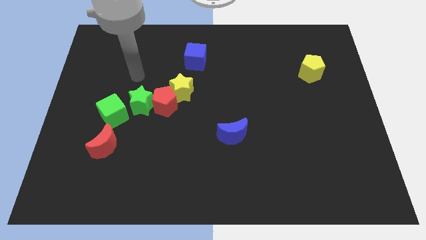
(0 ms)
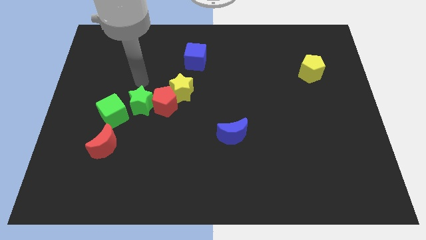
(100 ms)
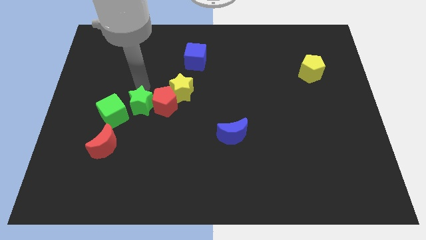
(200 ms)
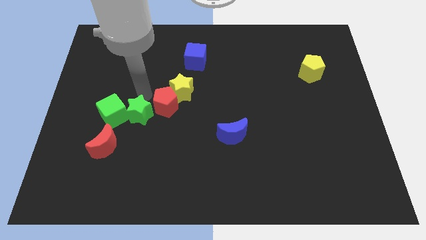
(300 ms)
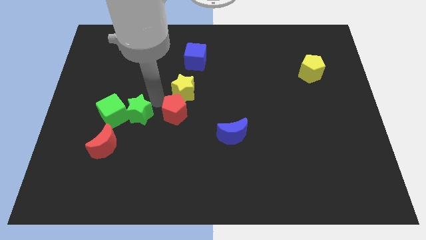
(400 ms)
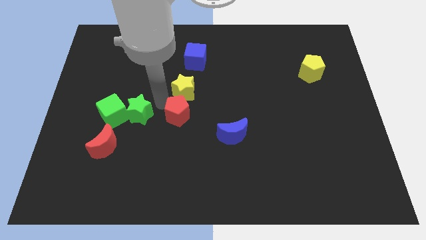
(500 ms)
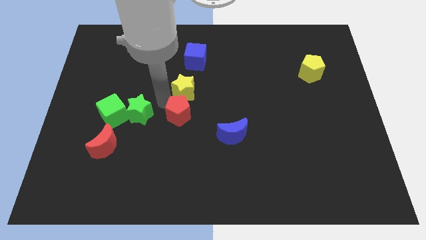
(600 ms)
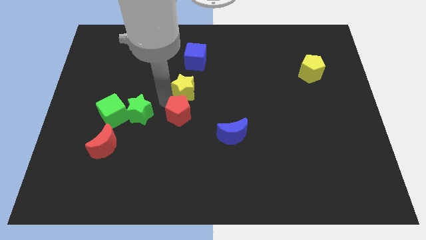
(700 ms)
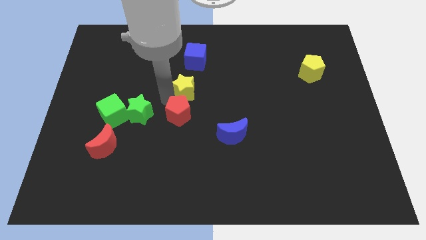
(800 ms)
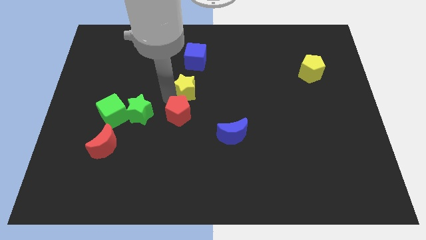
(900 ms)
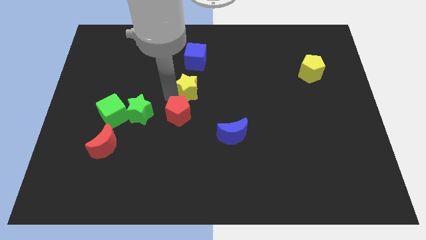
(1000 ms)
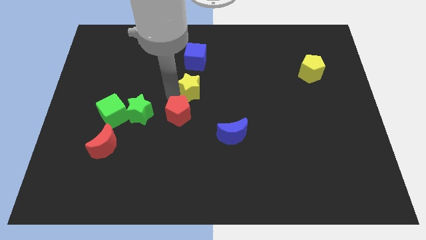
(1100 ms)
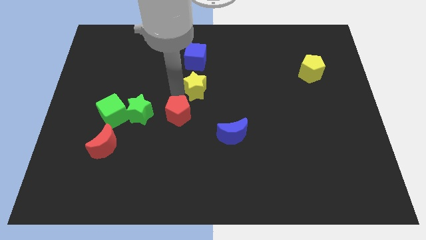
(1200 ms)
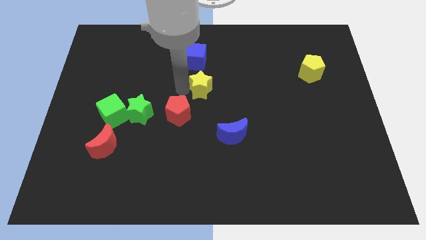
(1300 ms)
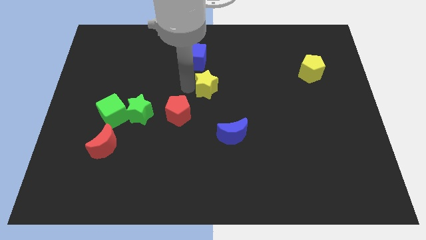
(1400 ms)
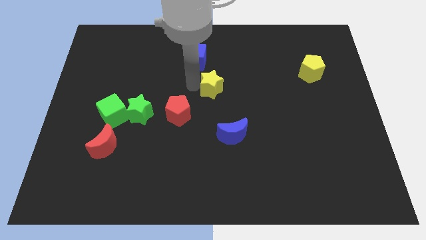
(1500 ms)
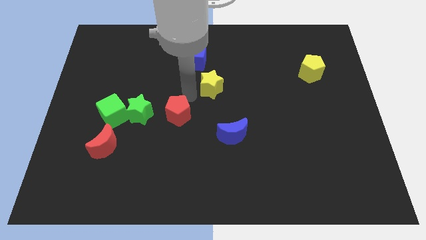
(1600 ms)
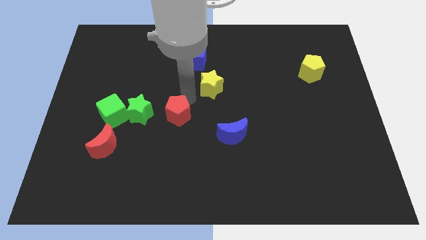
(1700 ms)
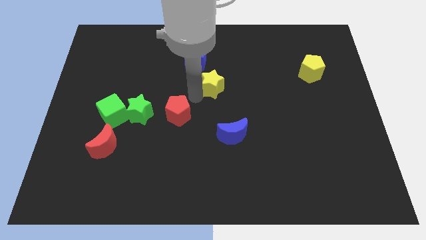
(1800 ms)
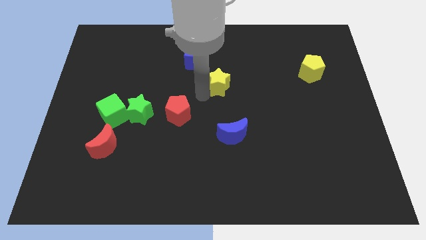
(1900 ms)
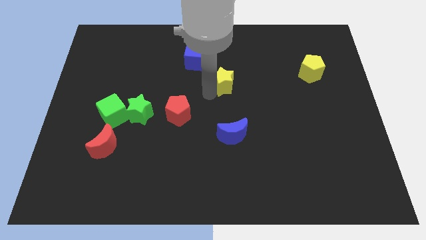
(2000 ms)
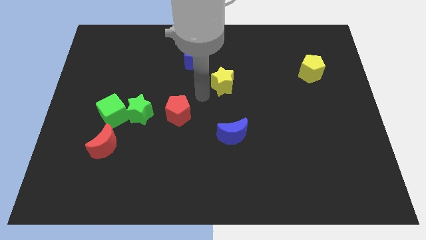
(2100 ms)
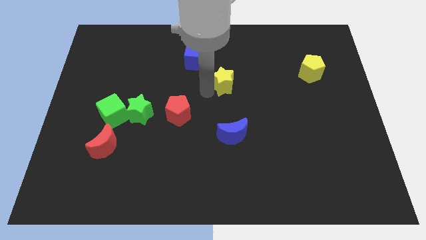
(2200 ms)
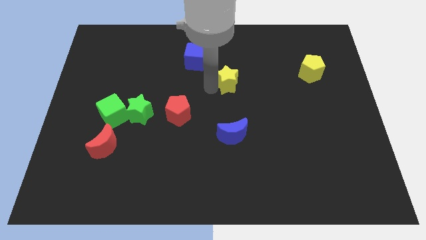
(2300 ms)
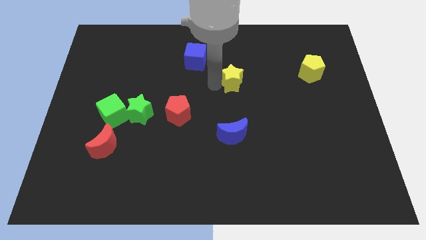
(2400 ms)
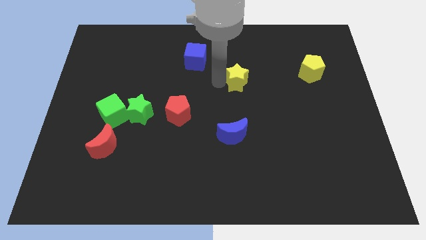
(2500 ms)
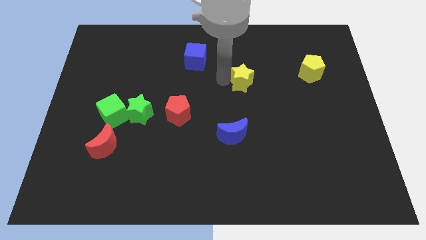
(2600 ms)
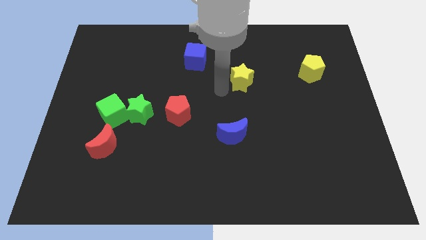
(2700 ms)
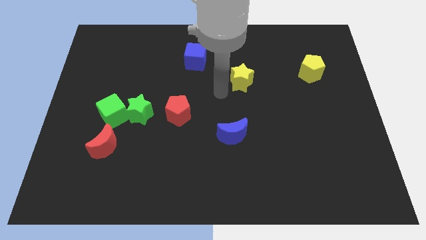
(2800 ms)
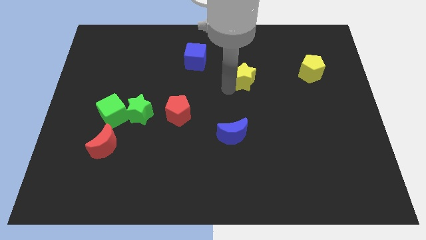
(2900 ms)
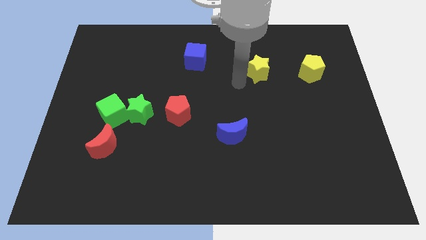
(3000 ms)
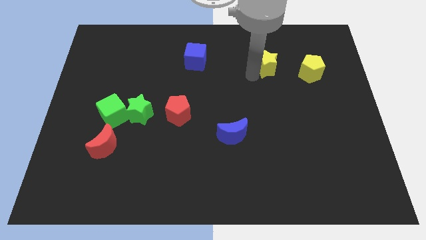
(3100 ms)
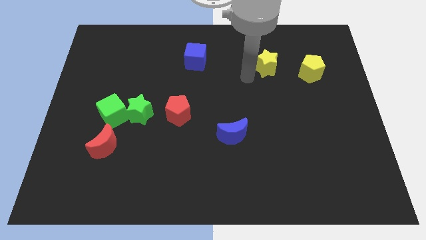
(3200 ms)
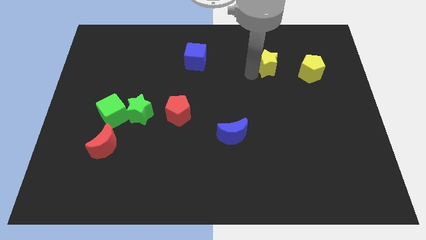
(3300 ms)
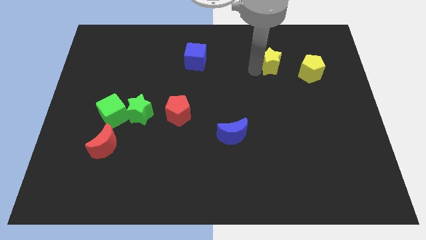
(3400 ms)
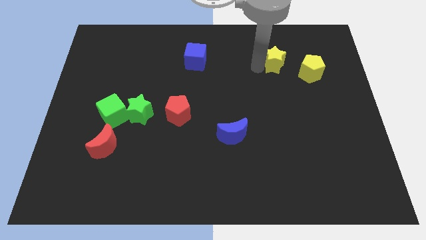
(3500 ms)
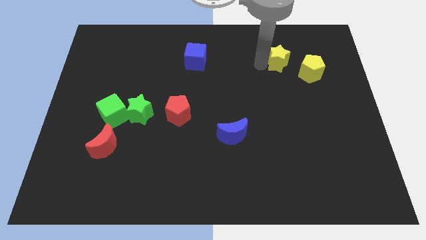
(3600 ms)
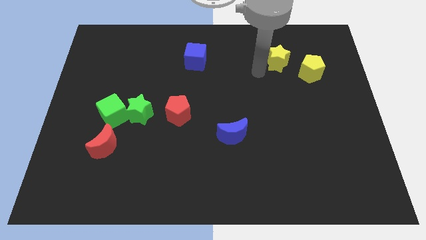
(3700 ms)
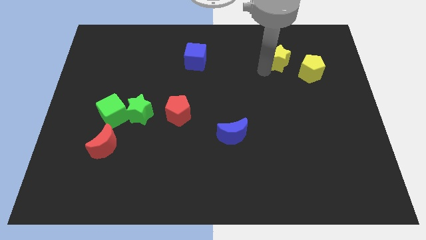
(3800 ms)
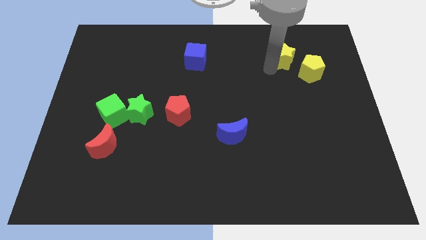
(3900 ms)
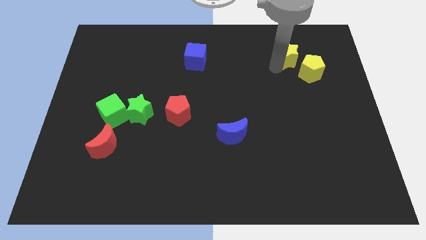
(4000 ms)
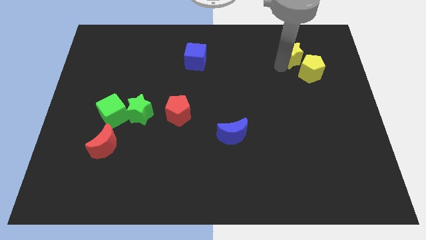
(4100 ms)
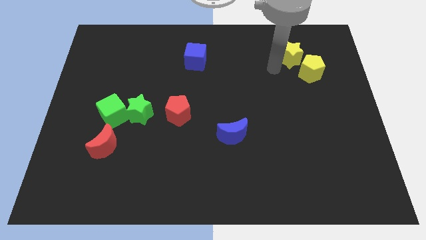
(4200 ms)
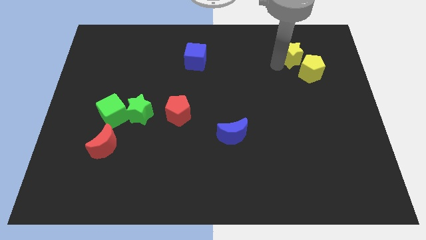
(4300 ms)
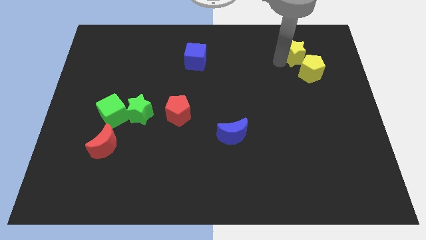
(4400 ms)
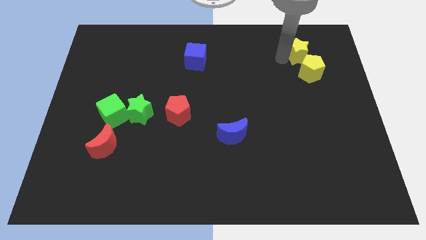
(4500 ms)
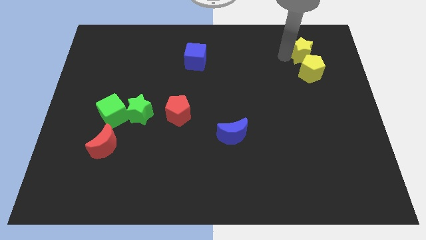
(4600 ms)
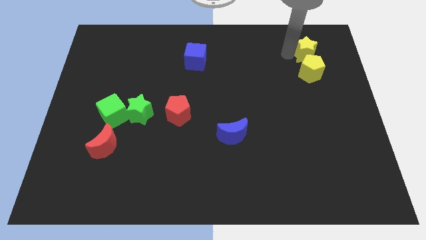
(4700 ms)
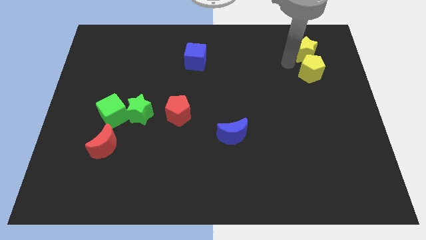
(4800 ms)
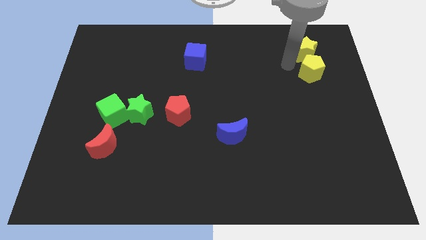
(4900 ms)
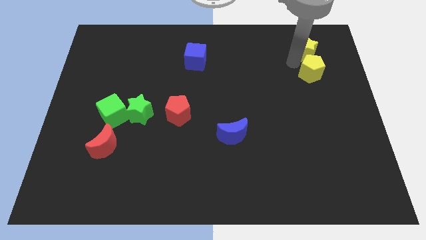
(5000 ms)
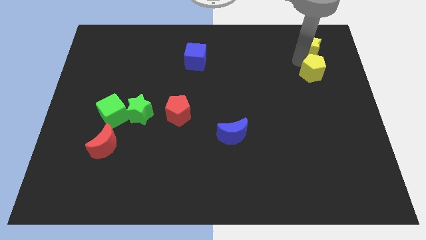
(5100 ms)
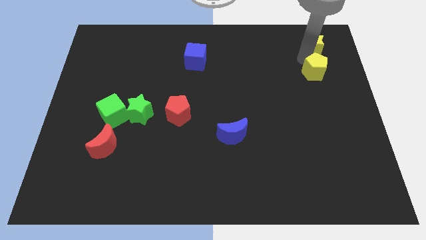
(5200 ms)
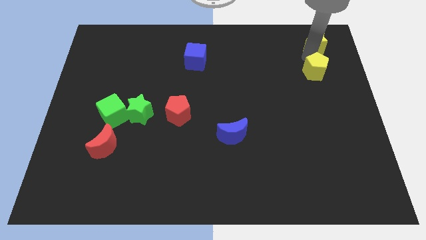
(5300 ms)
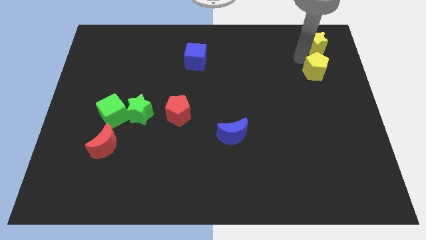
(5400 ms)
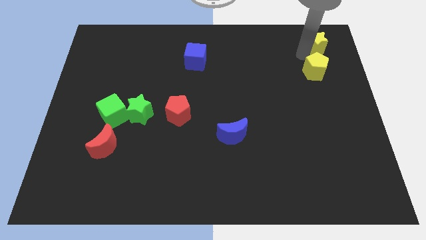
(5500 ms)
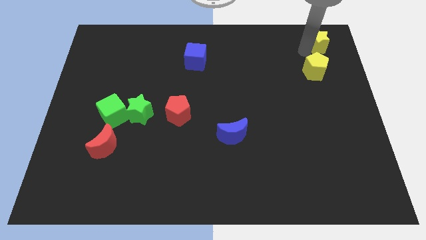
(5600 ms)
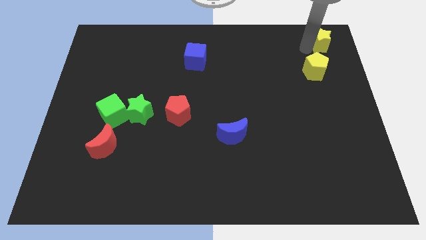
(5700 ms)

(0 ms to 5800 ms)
move the yellow star to the upper right corner

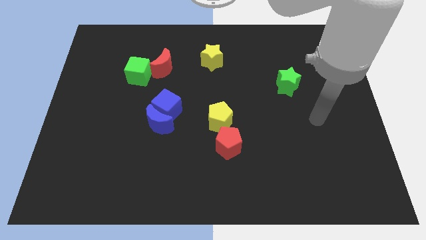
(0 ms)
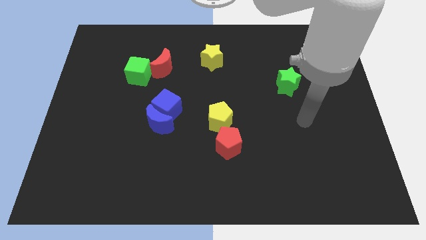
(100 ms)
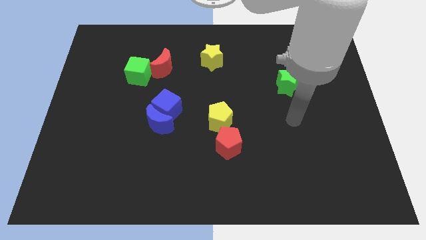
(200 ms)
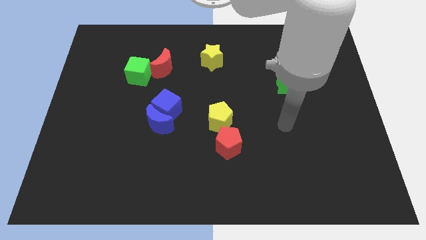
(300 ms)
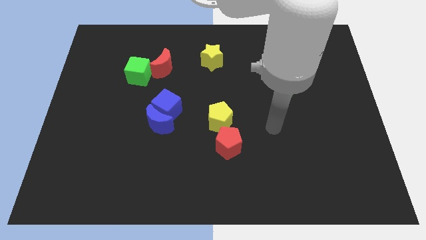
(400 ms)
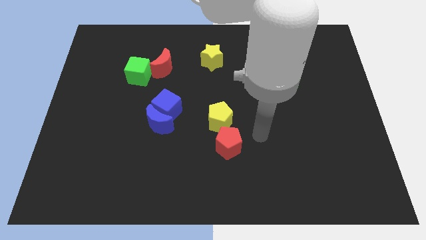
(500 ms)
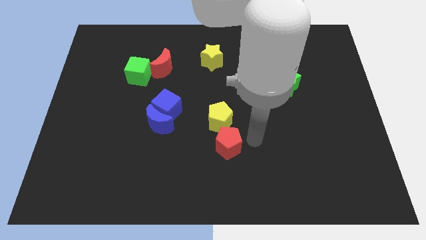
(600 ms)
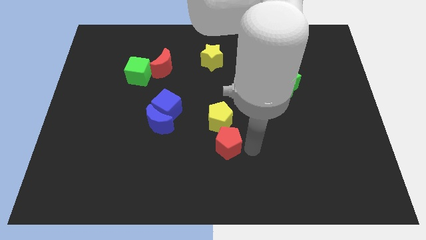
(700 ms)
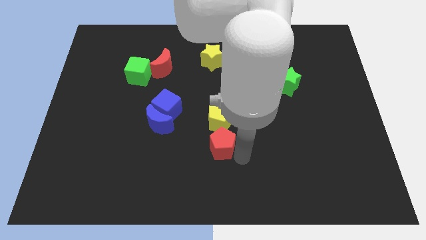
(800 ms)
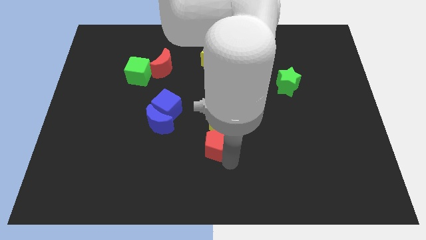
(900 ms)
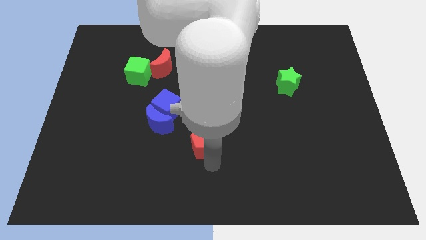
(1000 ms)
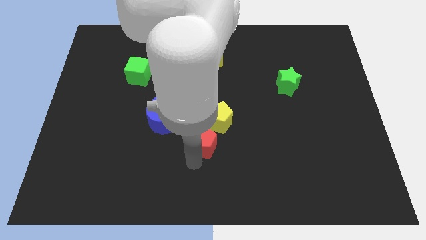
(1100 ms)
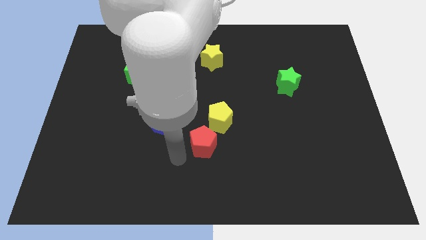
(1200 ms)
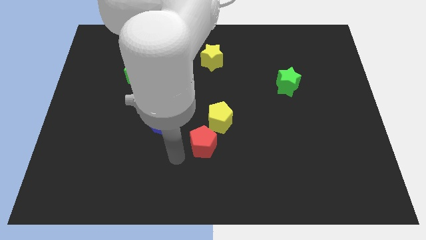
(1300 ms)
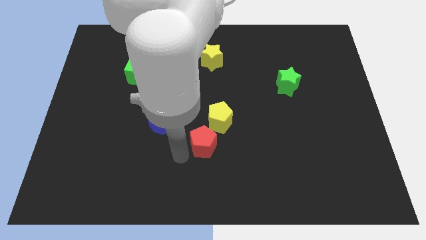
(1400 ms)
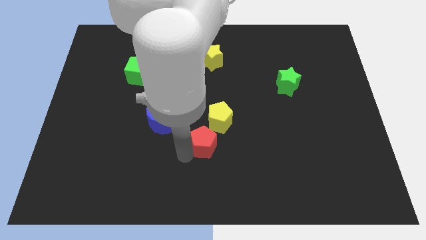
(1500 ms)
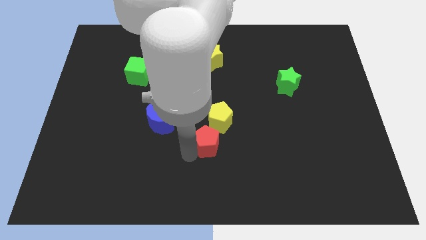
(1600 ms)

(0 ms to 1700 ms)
move the red pentagon to the center
